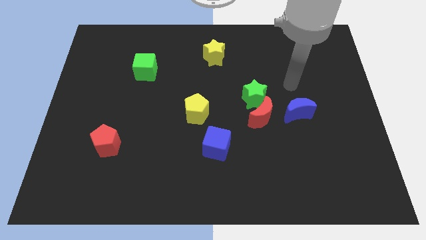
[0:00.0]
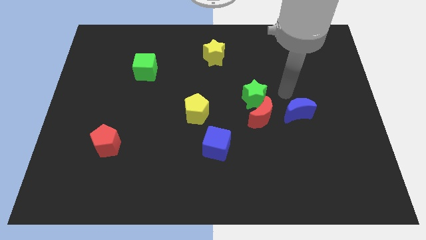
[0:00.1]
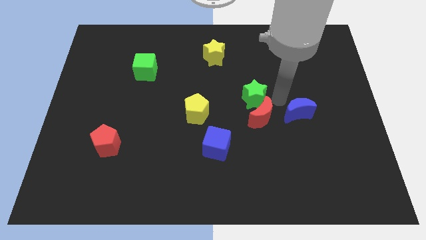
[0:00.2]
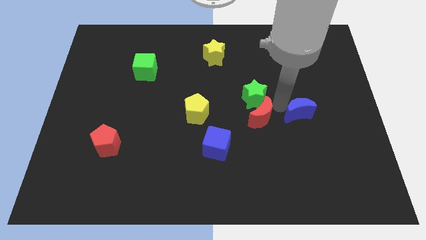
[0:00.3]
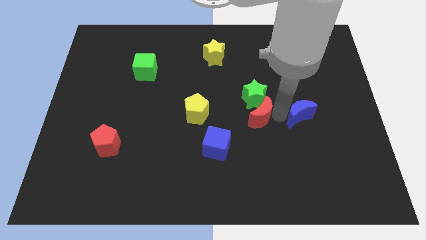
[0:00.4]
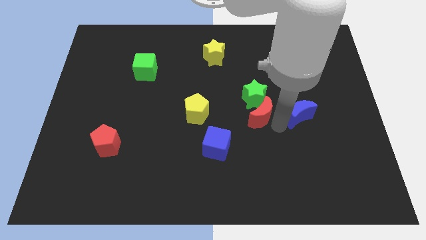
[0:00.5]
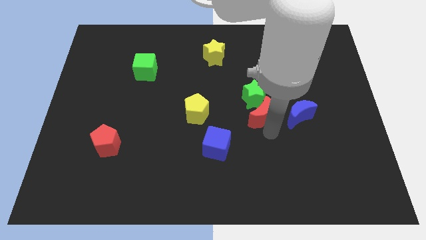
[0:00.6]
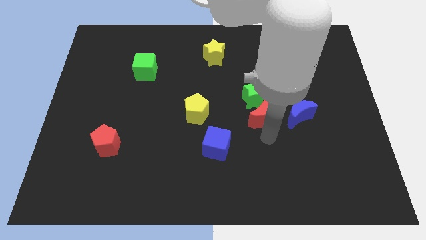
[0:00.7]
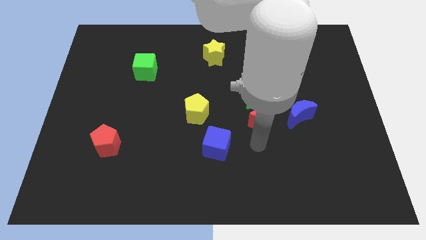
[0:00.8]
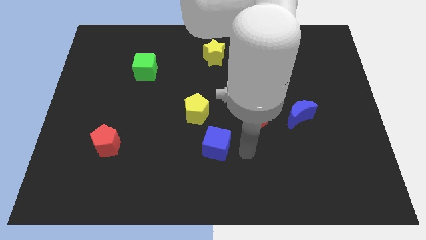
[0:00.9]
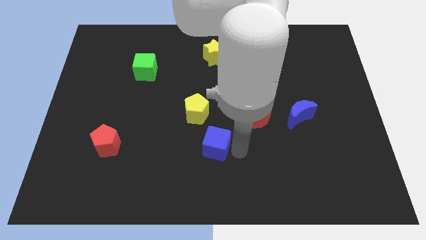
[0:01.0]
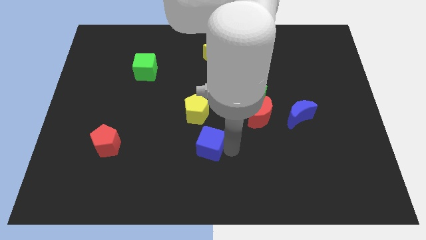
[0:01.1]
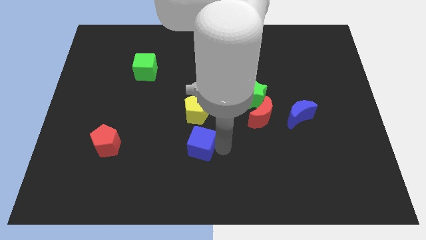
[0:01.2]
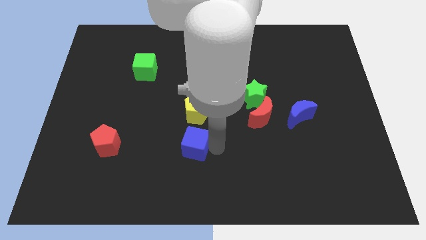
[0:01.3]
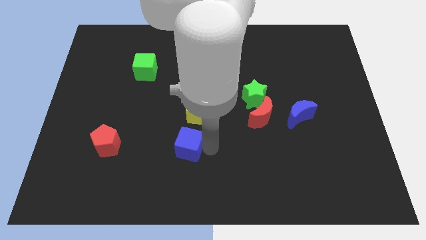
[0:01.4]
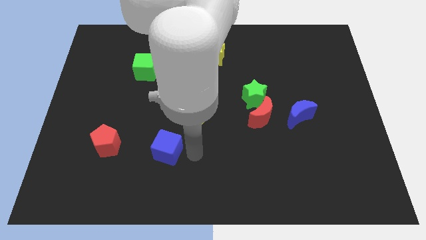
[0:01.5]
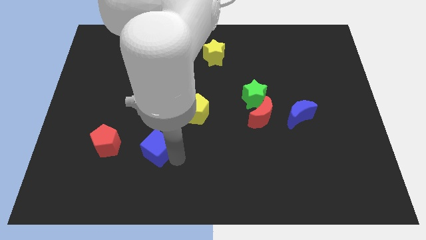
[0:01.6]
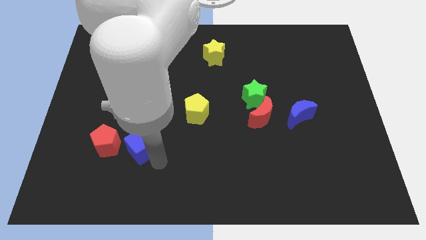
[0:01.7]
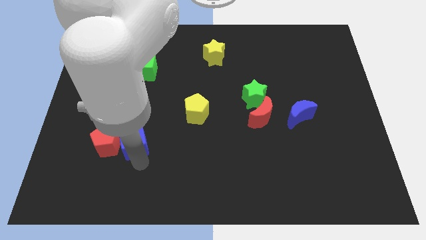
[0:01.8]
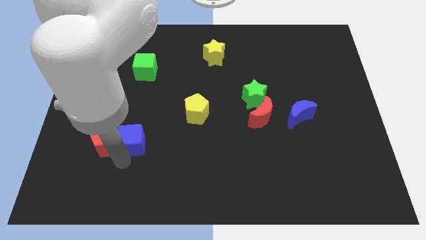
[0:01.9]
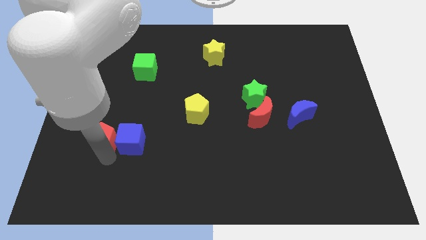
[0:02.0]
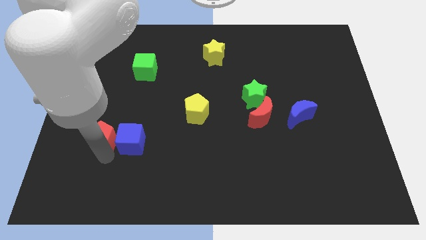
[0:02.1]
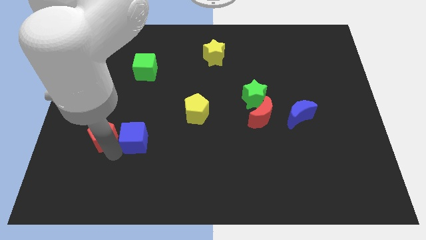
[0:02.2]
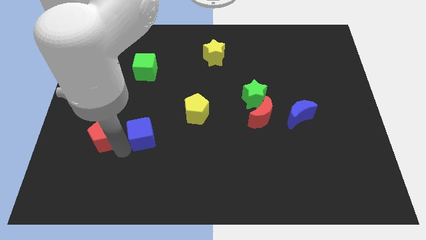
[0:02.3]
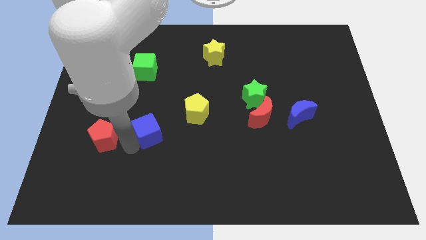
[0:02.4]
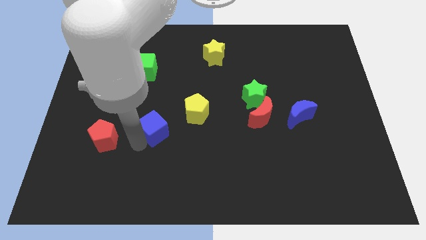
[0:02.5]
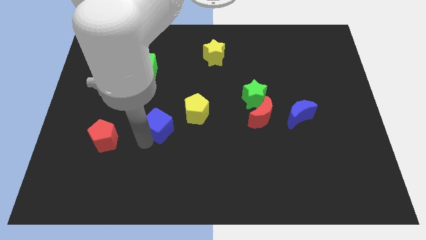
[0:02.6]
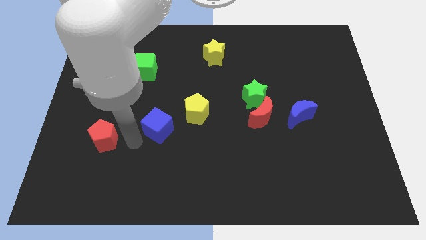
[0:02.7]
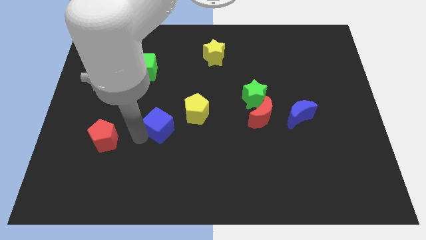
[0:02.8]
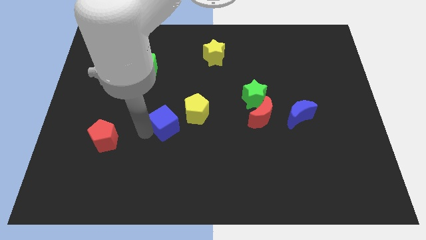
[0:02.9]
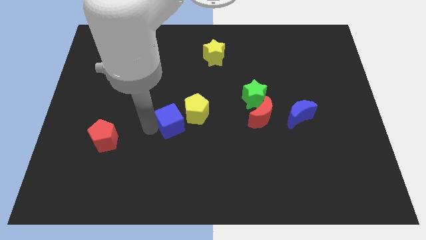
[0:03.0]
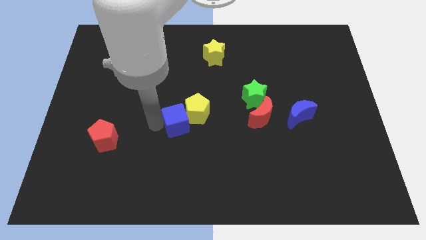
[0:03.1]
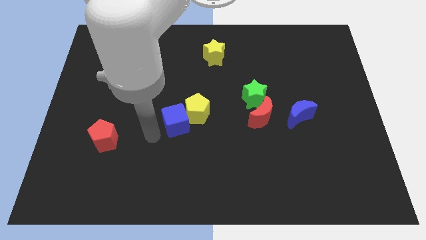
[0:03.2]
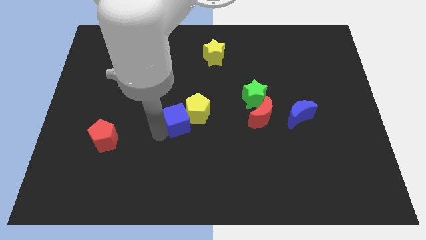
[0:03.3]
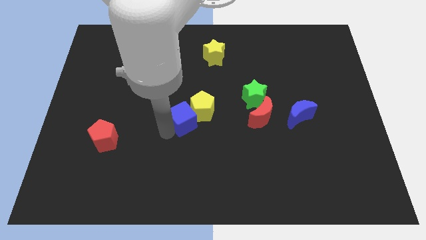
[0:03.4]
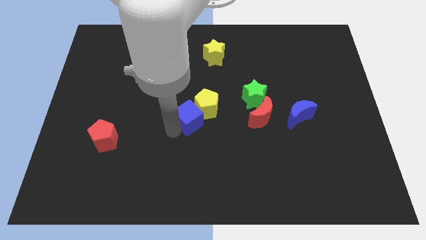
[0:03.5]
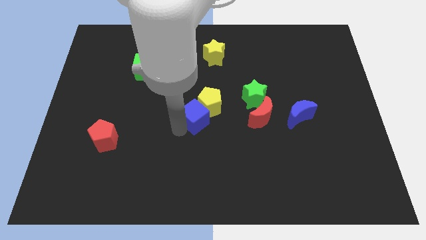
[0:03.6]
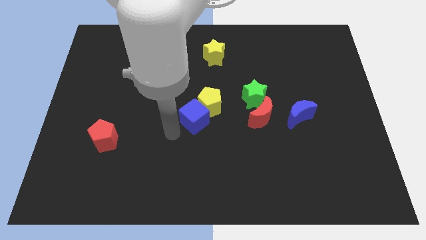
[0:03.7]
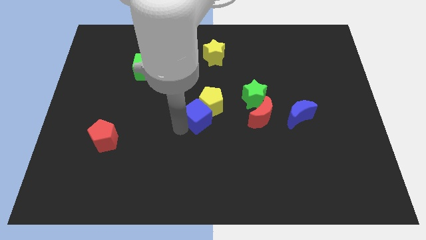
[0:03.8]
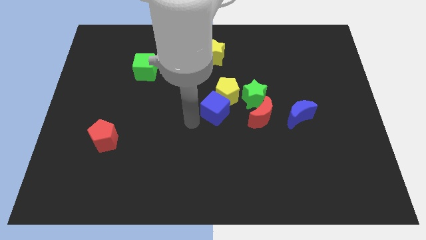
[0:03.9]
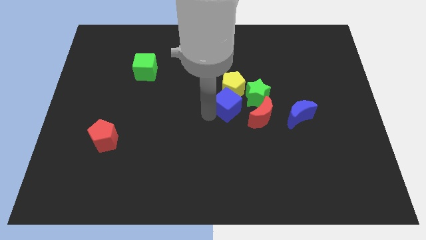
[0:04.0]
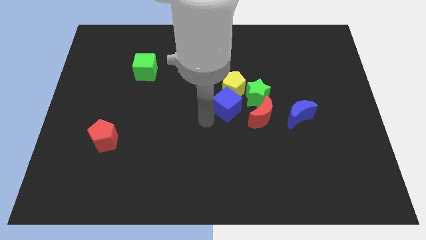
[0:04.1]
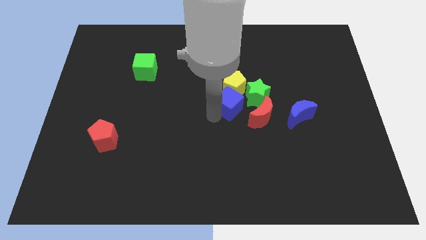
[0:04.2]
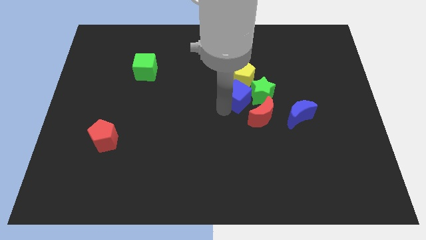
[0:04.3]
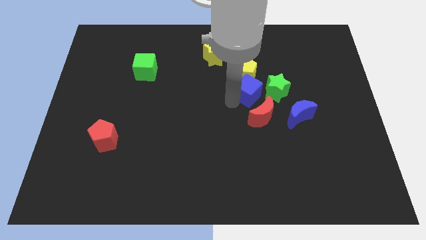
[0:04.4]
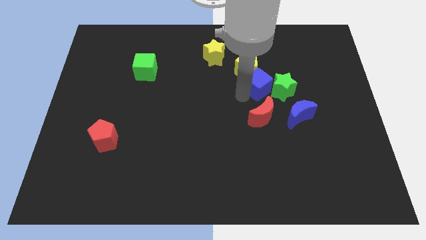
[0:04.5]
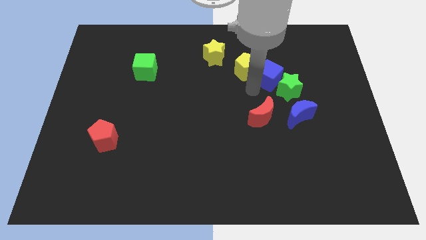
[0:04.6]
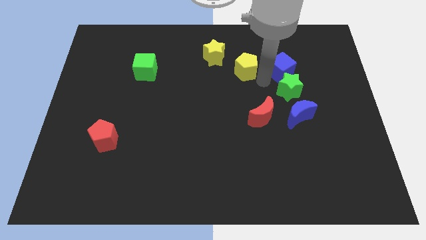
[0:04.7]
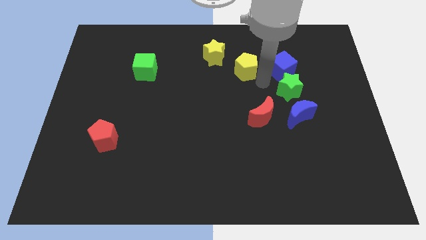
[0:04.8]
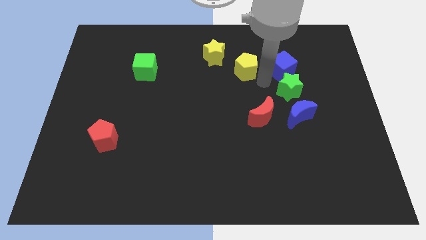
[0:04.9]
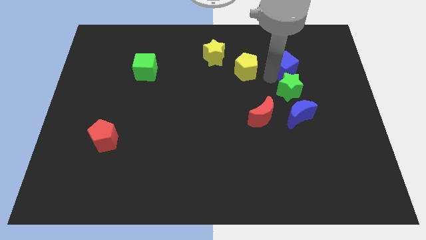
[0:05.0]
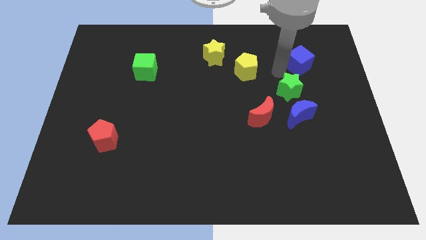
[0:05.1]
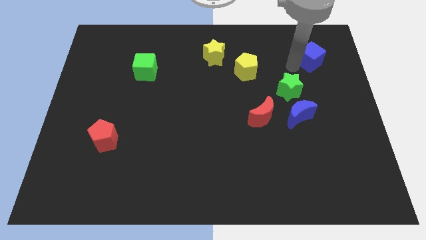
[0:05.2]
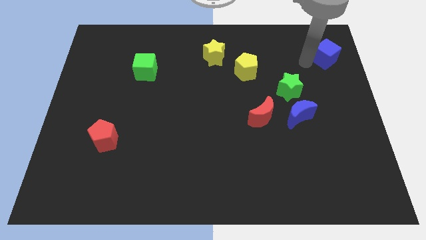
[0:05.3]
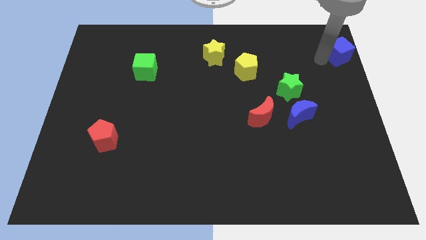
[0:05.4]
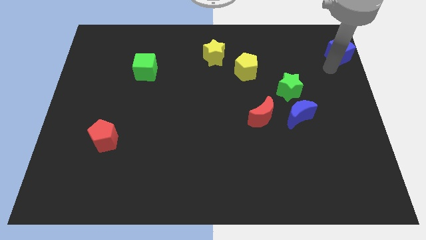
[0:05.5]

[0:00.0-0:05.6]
slide the blue cube to the top right corner
